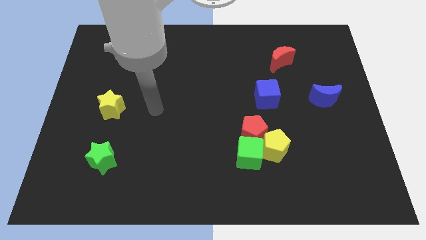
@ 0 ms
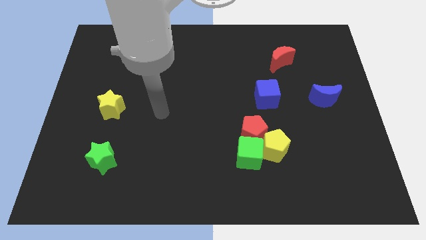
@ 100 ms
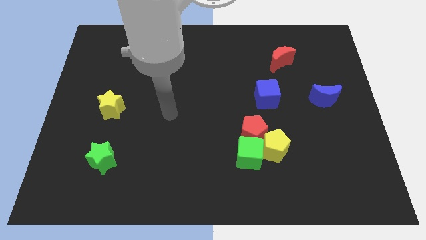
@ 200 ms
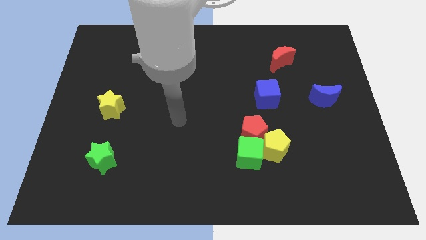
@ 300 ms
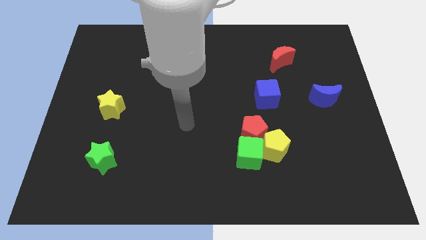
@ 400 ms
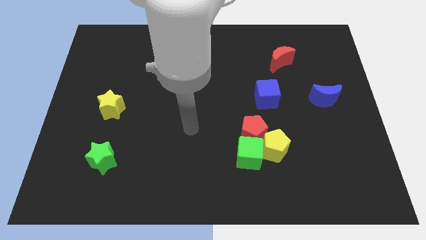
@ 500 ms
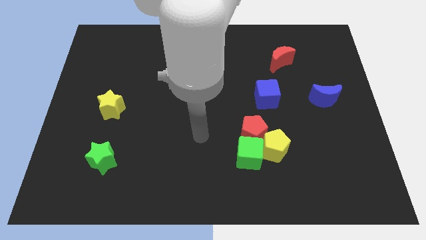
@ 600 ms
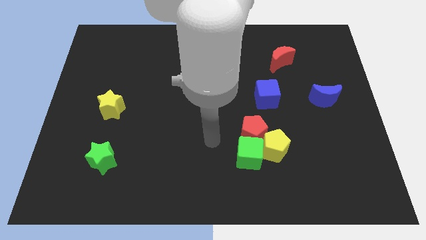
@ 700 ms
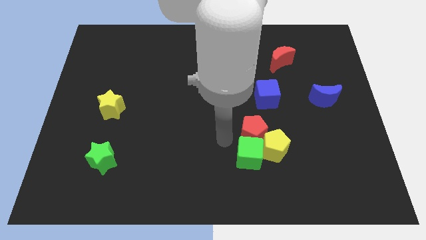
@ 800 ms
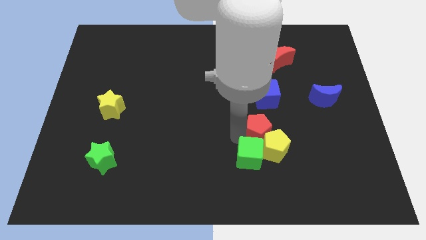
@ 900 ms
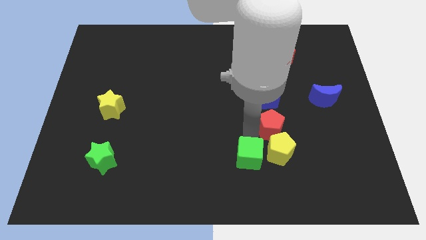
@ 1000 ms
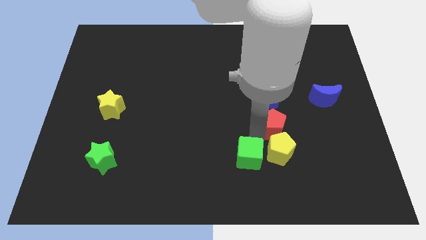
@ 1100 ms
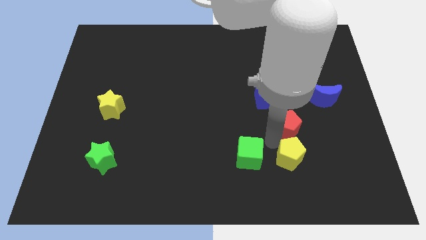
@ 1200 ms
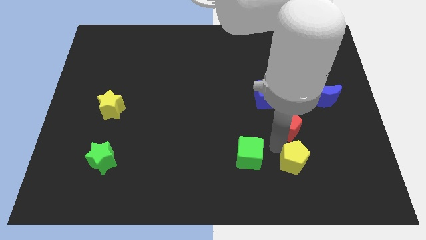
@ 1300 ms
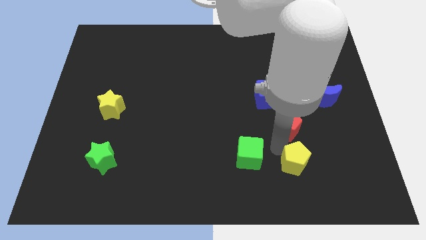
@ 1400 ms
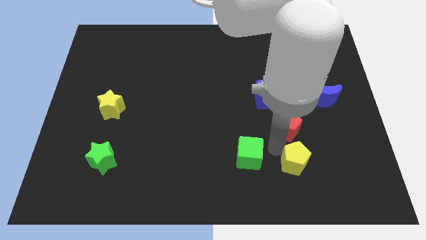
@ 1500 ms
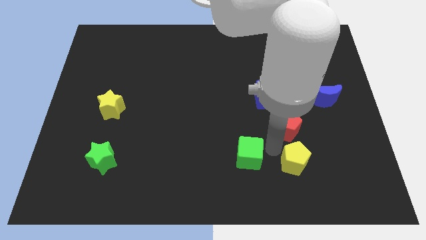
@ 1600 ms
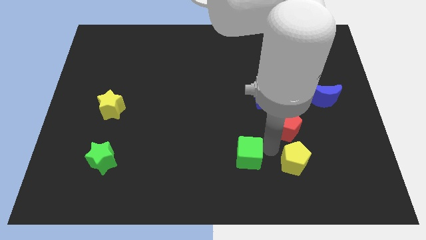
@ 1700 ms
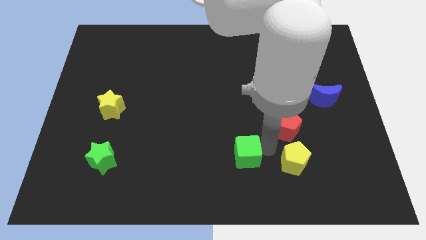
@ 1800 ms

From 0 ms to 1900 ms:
move the green cube away from the red pentagon and yellow pentagon

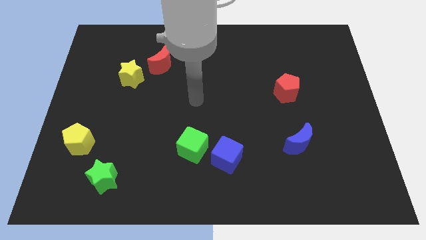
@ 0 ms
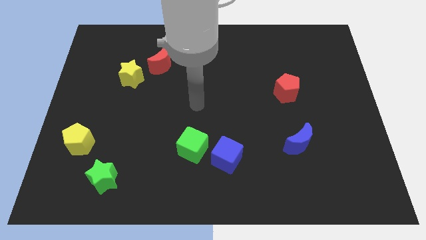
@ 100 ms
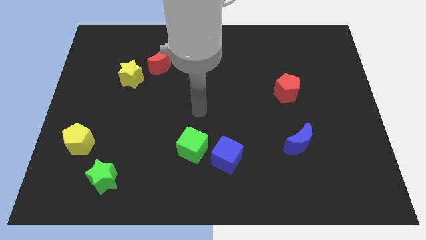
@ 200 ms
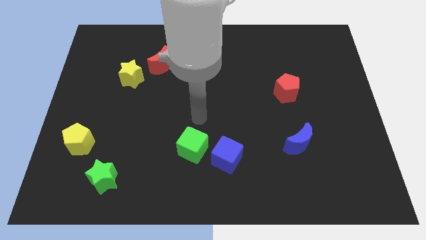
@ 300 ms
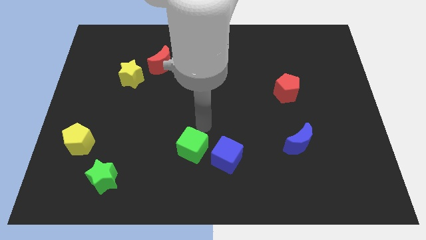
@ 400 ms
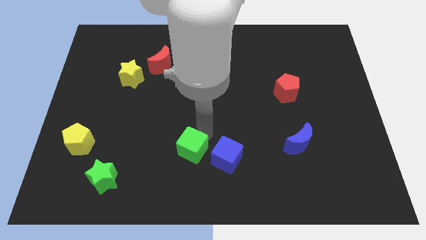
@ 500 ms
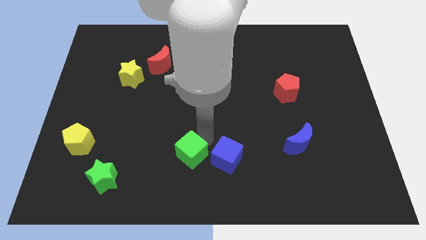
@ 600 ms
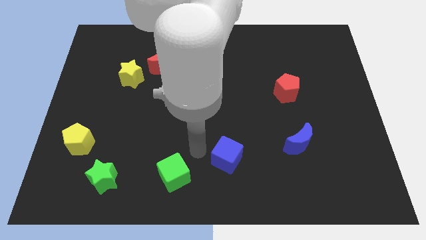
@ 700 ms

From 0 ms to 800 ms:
pull the blue cube apart from the green cube

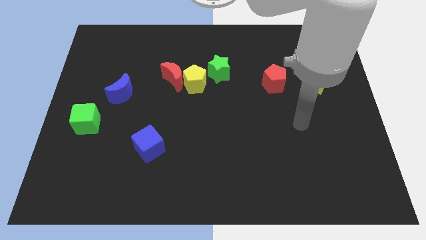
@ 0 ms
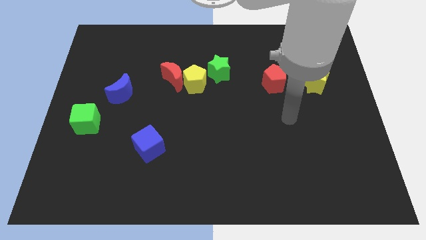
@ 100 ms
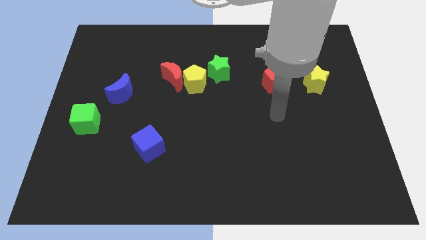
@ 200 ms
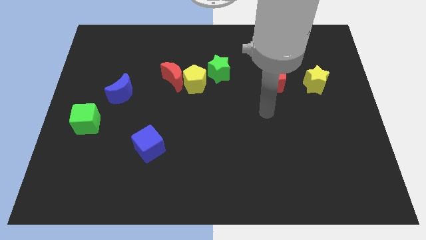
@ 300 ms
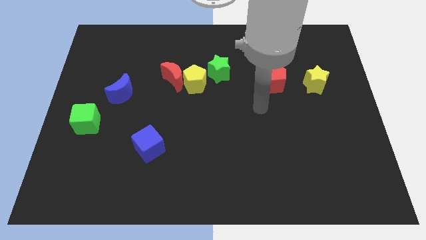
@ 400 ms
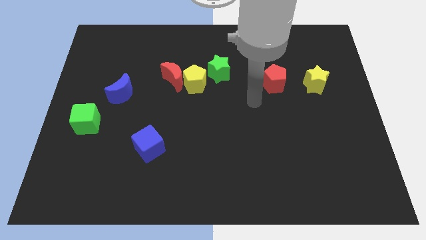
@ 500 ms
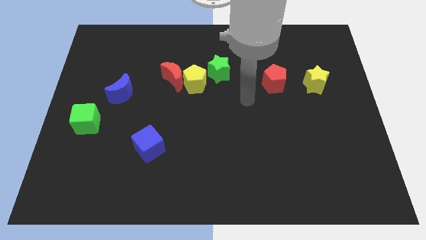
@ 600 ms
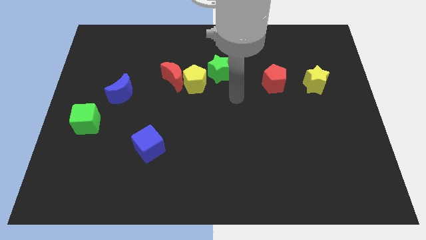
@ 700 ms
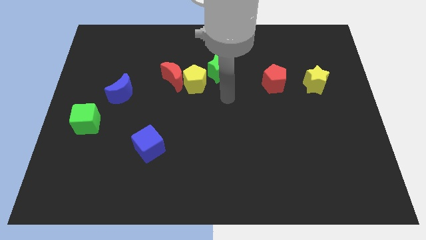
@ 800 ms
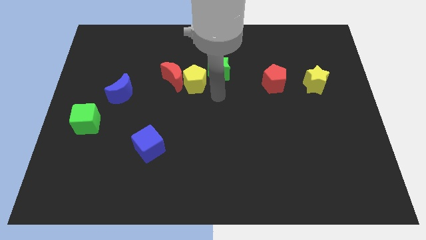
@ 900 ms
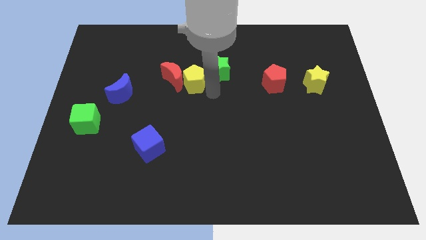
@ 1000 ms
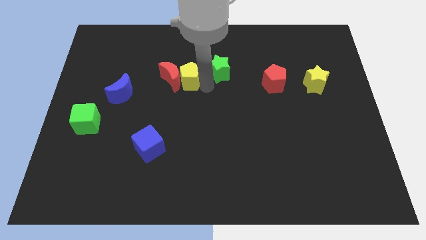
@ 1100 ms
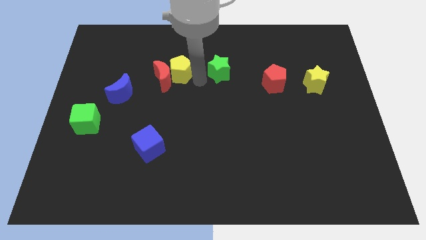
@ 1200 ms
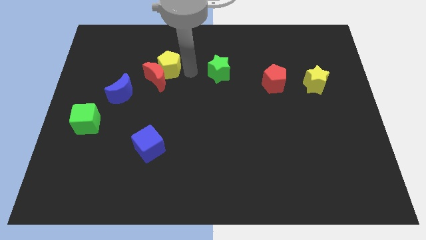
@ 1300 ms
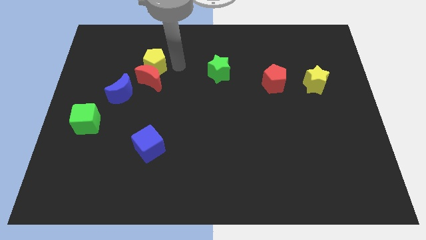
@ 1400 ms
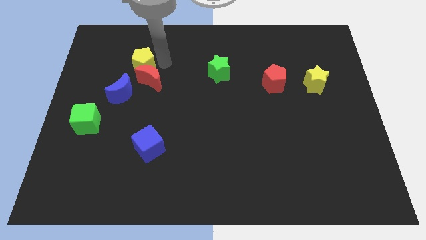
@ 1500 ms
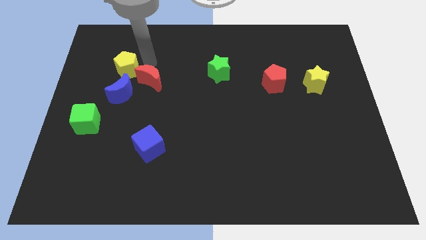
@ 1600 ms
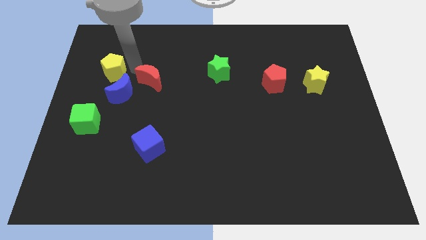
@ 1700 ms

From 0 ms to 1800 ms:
separate the red moon from the yellow pentagon

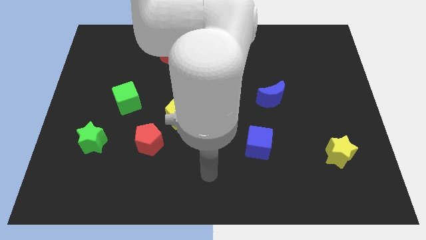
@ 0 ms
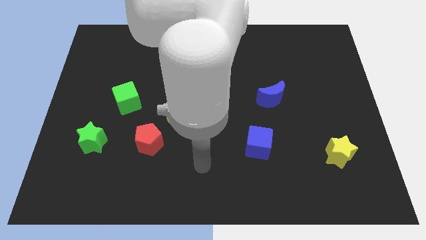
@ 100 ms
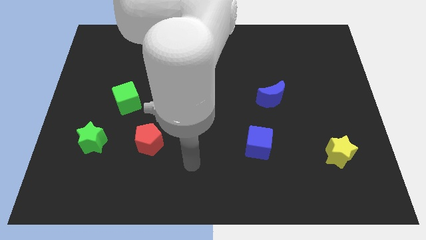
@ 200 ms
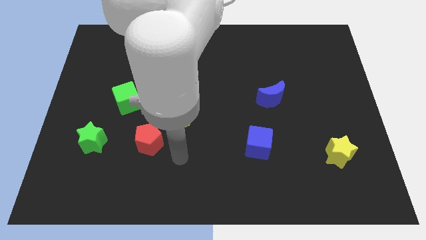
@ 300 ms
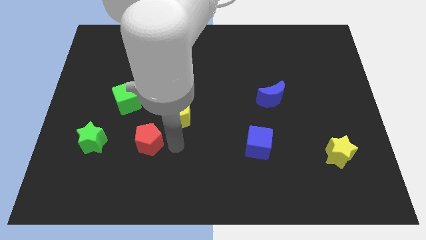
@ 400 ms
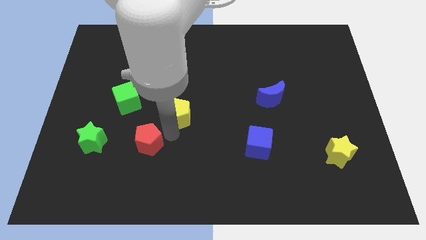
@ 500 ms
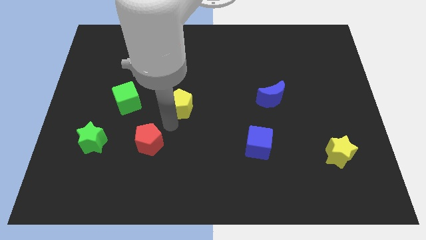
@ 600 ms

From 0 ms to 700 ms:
pull the red pentagon apart from the yellow pentagon

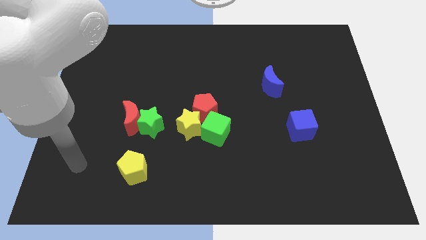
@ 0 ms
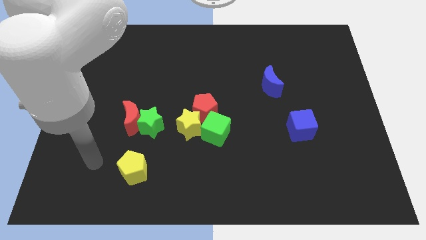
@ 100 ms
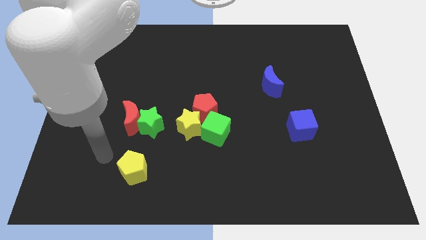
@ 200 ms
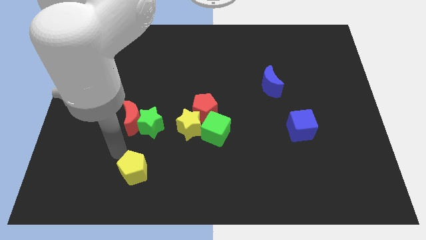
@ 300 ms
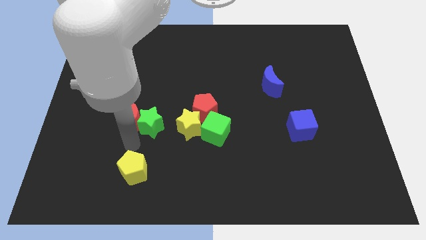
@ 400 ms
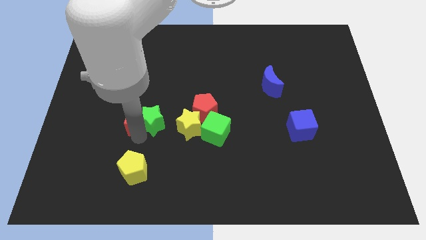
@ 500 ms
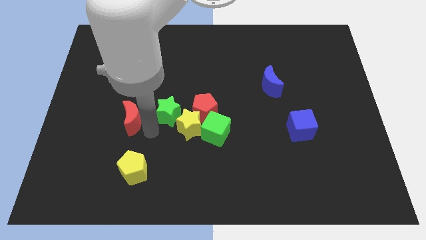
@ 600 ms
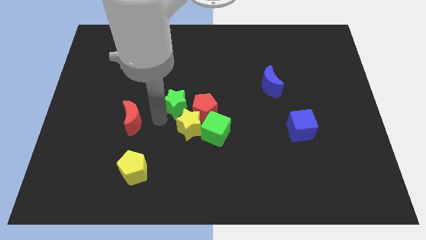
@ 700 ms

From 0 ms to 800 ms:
separate the red moon from the green star

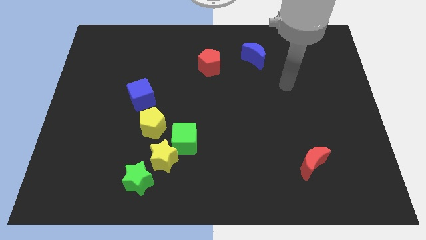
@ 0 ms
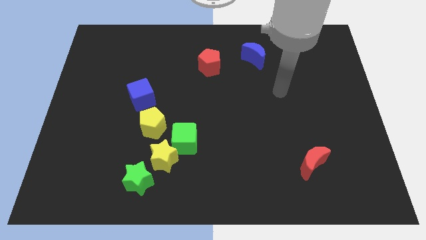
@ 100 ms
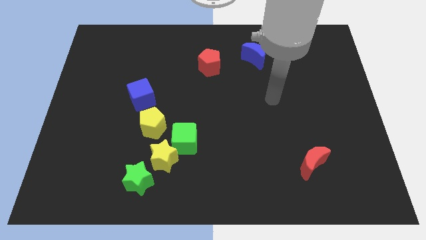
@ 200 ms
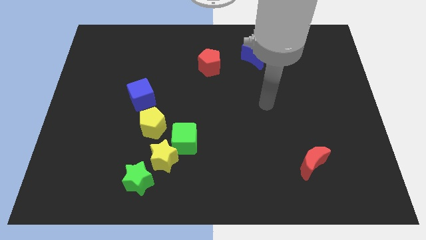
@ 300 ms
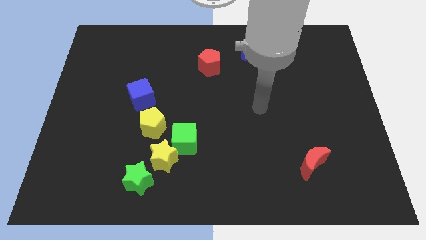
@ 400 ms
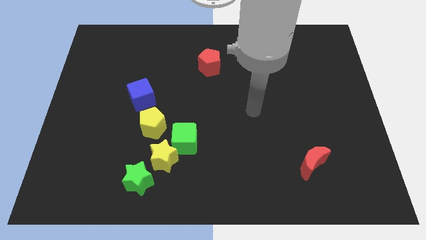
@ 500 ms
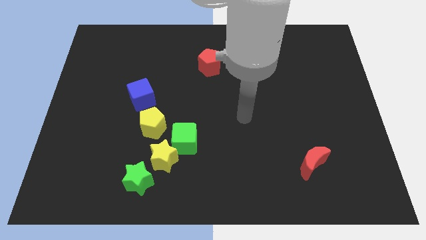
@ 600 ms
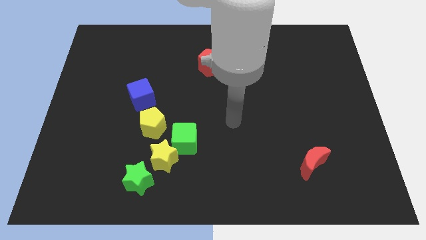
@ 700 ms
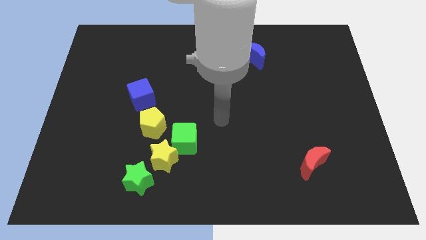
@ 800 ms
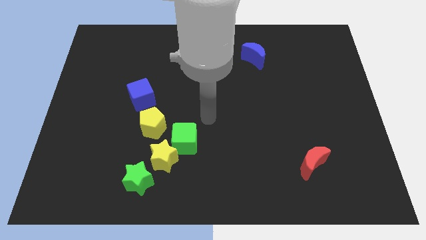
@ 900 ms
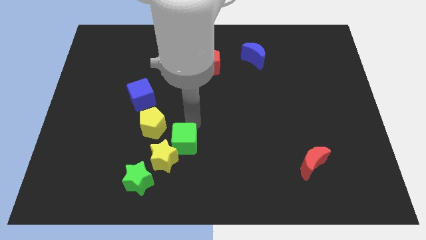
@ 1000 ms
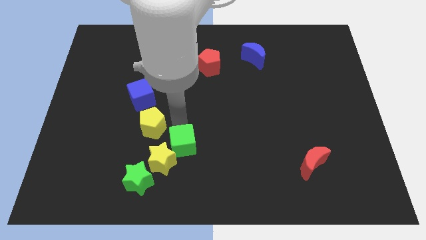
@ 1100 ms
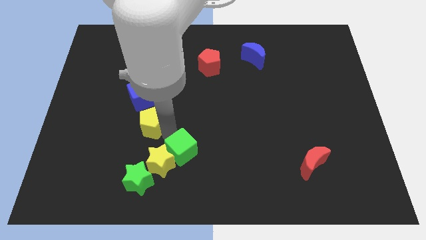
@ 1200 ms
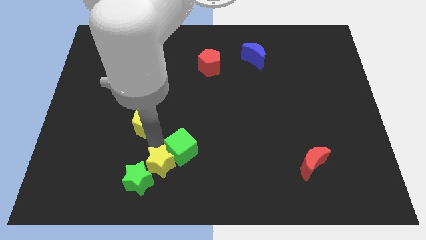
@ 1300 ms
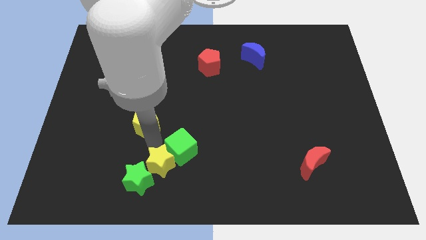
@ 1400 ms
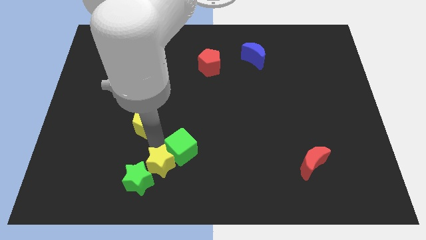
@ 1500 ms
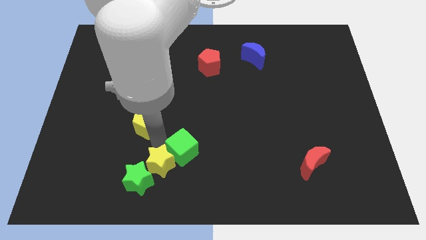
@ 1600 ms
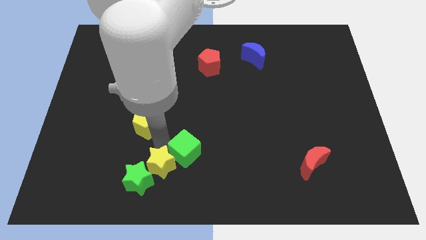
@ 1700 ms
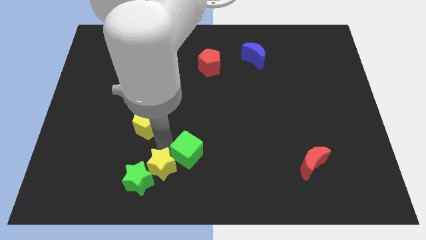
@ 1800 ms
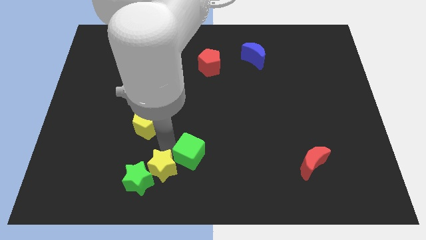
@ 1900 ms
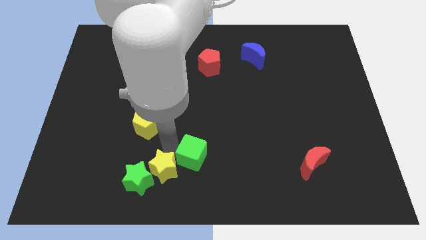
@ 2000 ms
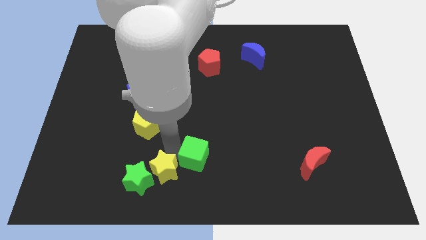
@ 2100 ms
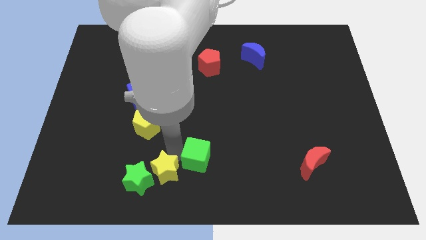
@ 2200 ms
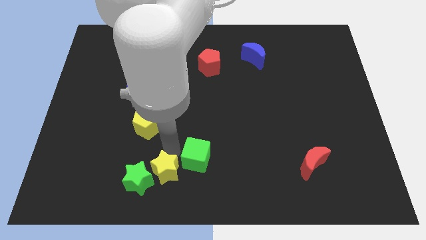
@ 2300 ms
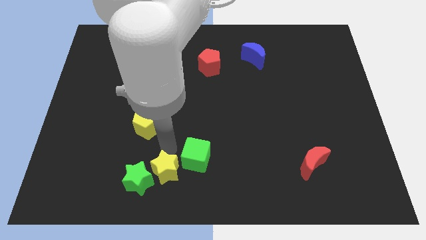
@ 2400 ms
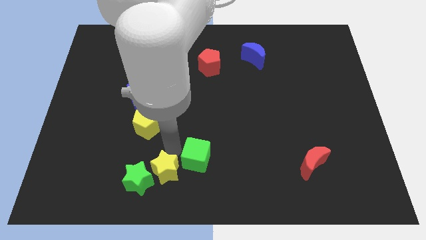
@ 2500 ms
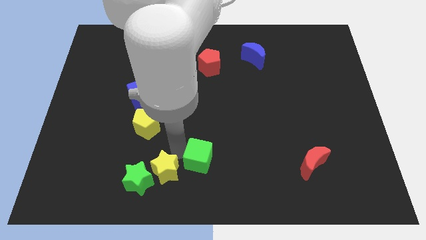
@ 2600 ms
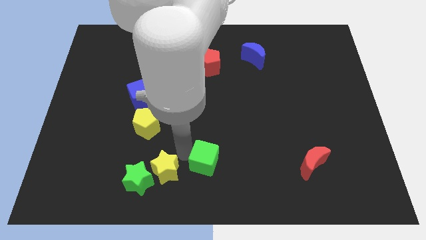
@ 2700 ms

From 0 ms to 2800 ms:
move the green cube away from the yellow star and yellow pentagon

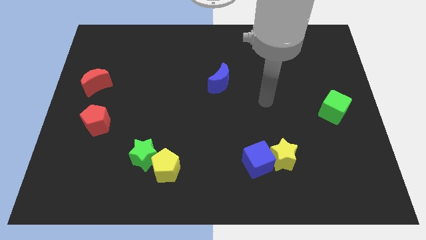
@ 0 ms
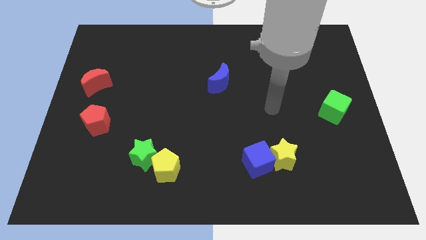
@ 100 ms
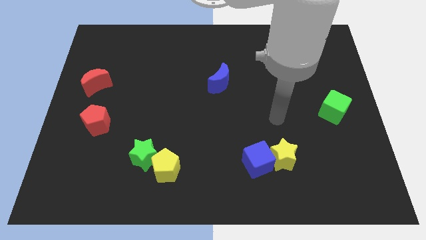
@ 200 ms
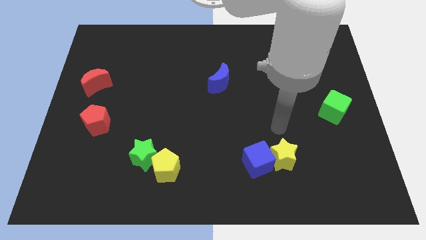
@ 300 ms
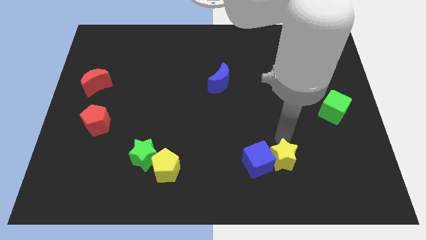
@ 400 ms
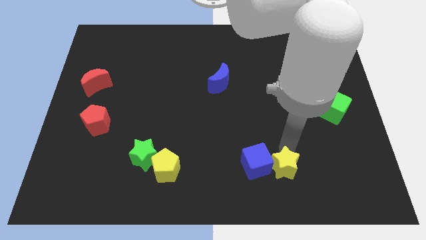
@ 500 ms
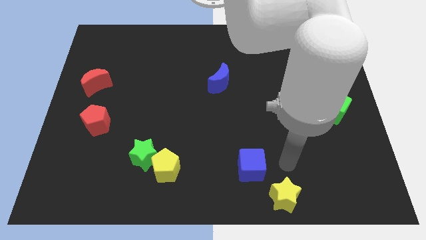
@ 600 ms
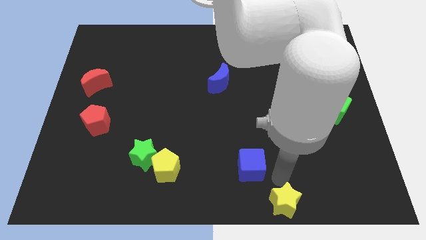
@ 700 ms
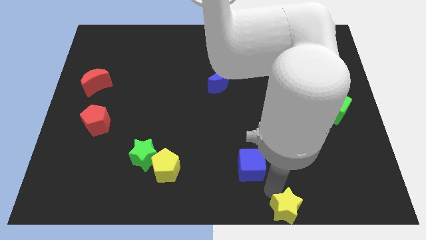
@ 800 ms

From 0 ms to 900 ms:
pull the blue cube apart from the yellow star
